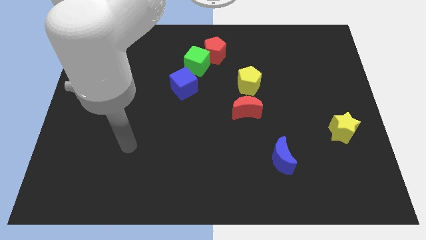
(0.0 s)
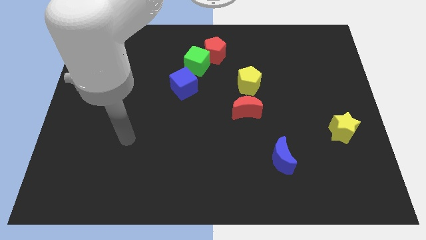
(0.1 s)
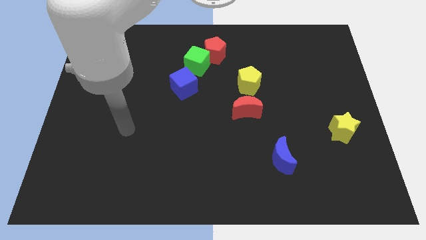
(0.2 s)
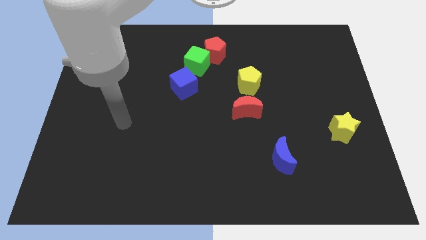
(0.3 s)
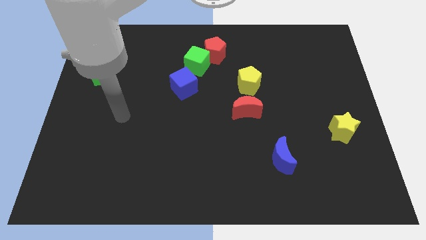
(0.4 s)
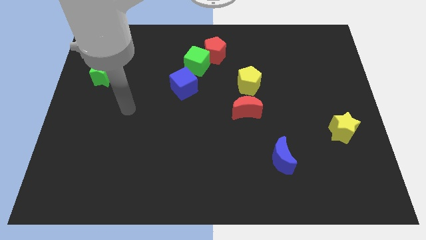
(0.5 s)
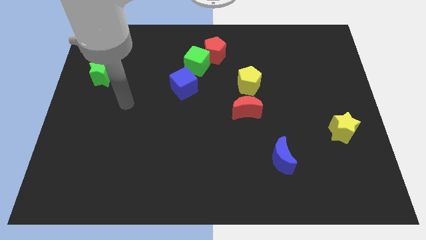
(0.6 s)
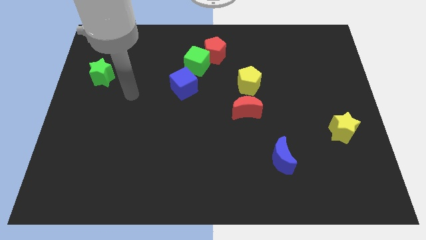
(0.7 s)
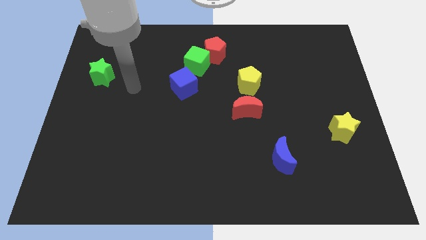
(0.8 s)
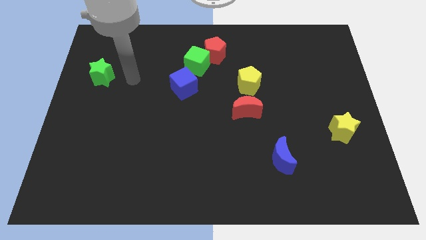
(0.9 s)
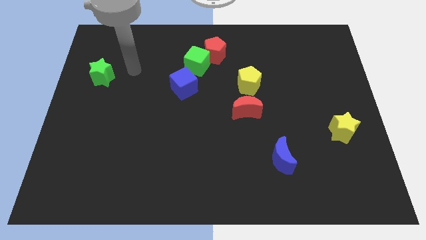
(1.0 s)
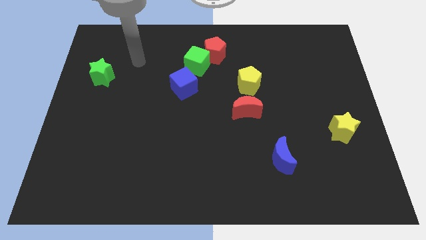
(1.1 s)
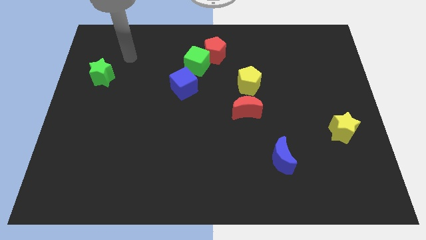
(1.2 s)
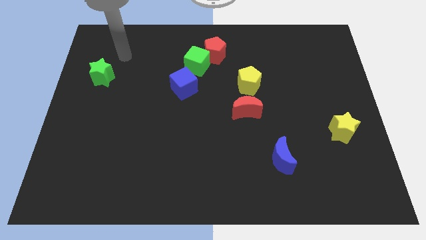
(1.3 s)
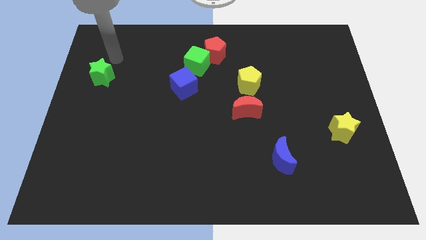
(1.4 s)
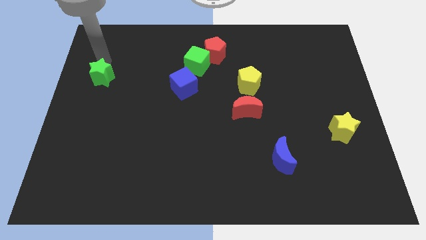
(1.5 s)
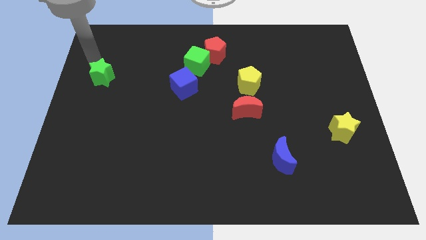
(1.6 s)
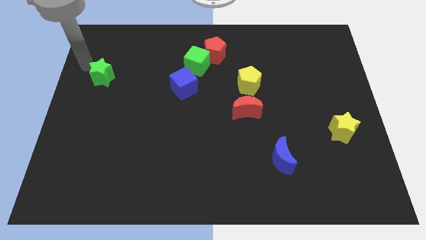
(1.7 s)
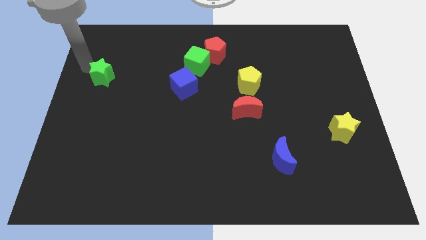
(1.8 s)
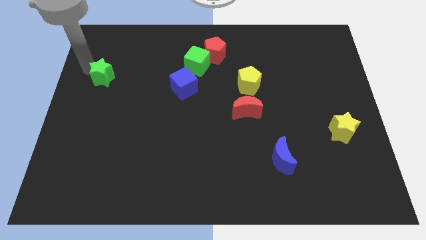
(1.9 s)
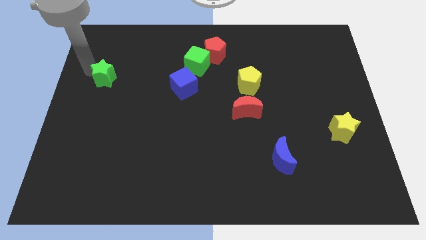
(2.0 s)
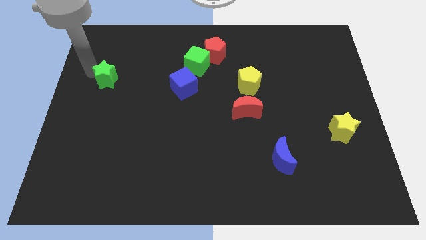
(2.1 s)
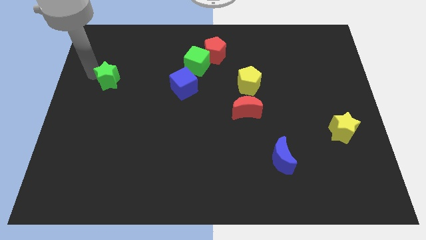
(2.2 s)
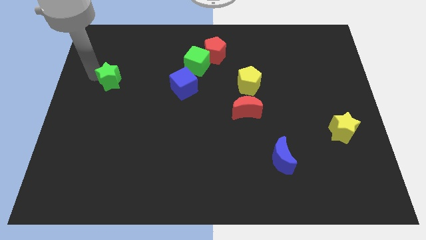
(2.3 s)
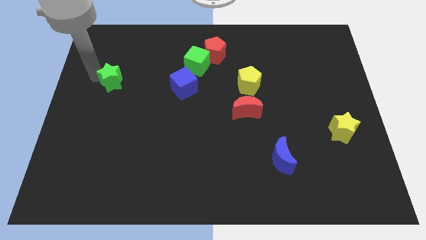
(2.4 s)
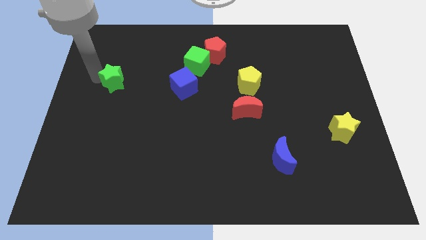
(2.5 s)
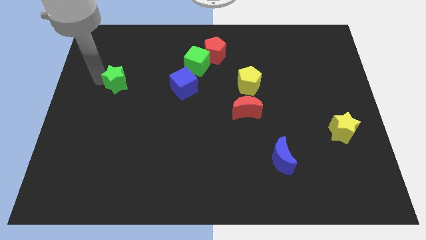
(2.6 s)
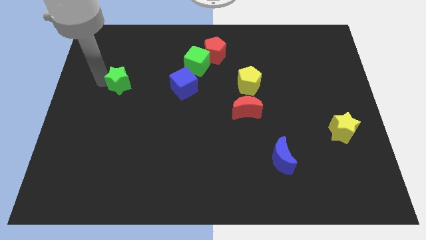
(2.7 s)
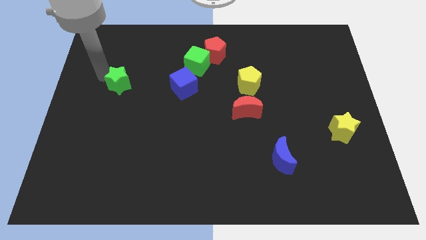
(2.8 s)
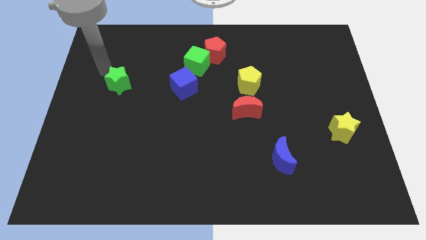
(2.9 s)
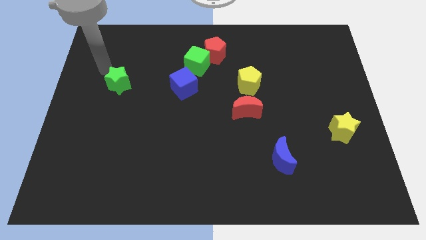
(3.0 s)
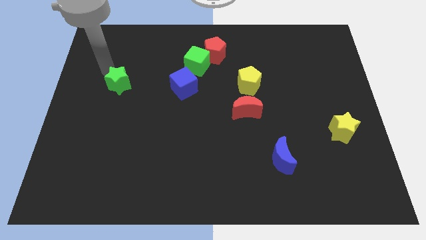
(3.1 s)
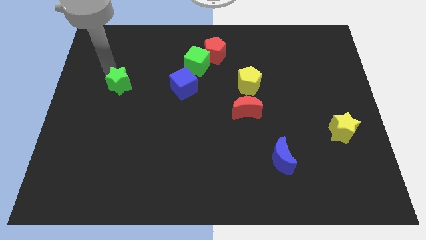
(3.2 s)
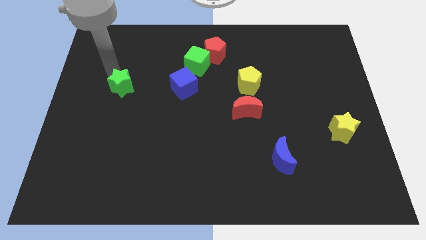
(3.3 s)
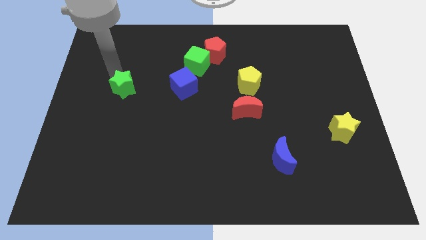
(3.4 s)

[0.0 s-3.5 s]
slightly push the green star downwards and right

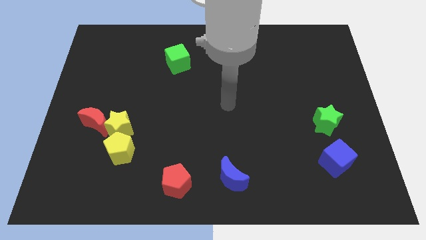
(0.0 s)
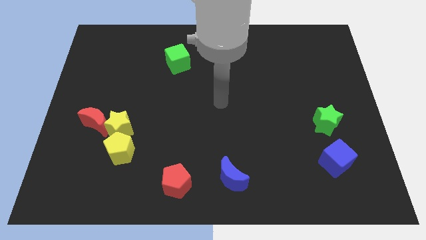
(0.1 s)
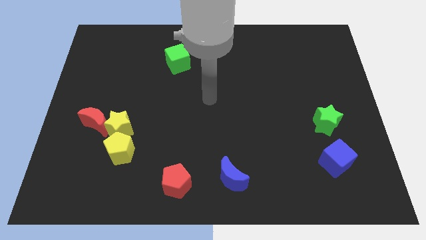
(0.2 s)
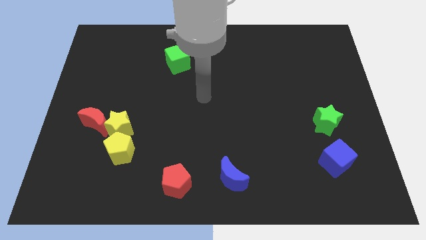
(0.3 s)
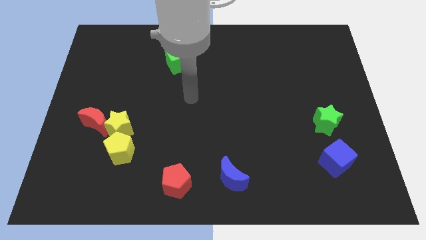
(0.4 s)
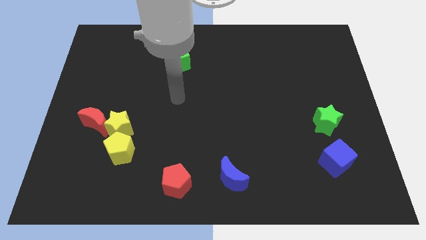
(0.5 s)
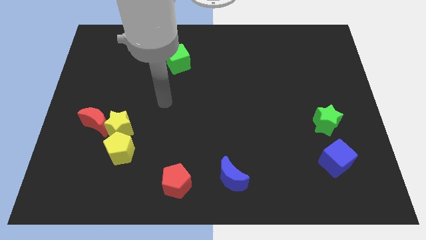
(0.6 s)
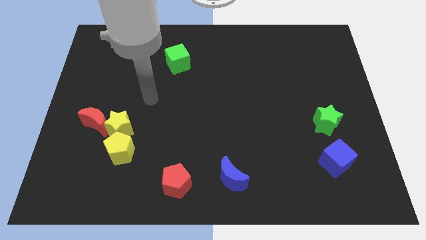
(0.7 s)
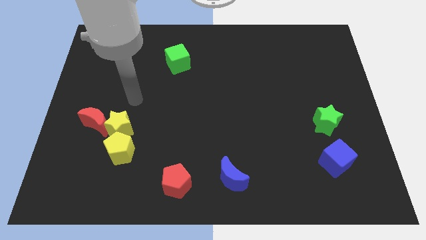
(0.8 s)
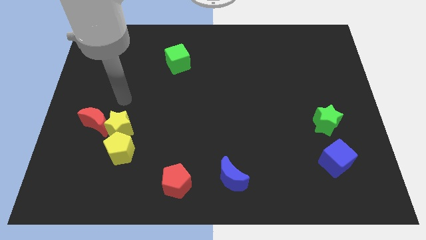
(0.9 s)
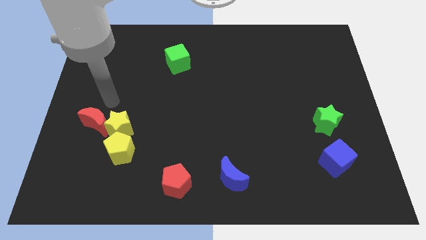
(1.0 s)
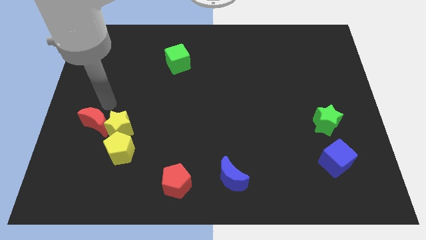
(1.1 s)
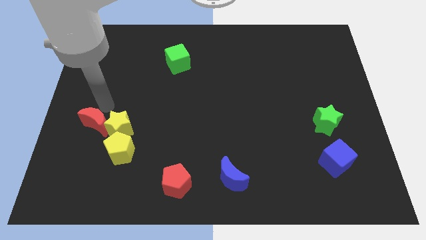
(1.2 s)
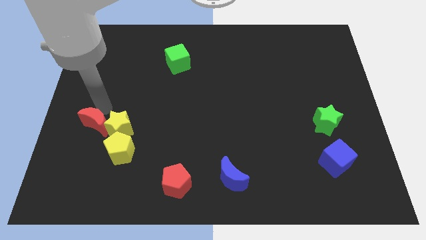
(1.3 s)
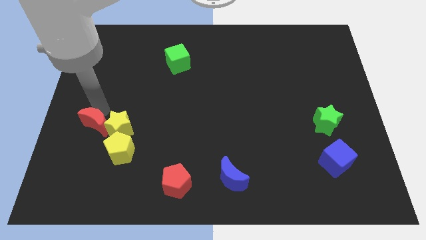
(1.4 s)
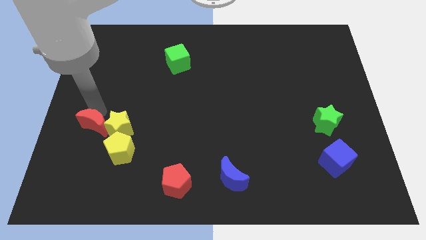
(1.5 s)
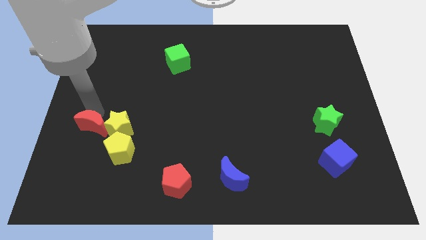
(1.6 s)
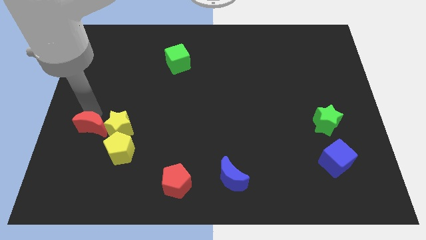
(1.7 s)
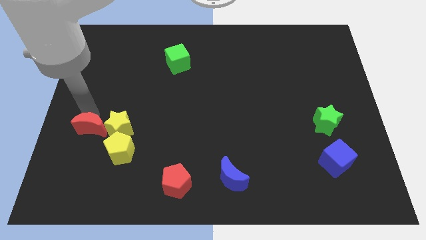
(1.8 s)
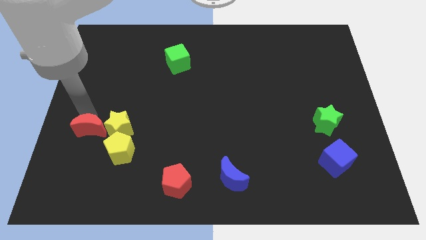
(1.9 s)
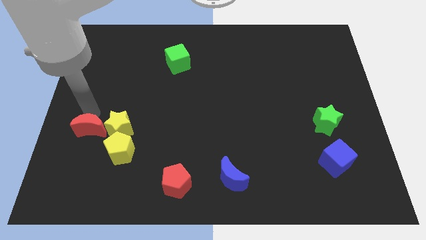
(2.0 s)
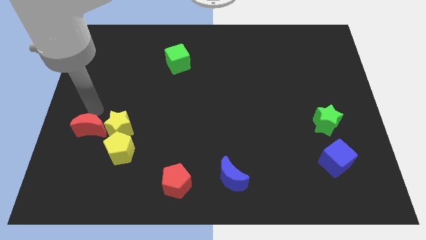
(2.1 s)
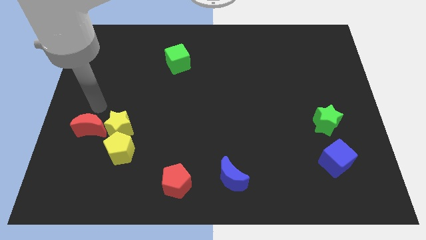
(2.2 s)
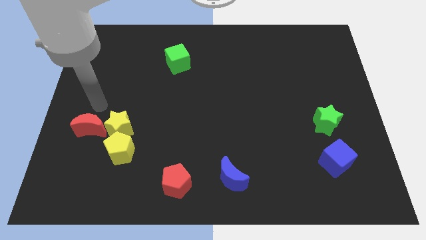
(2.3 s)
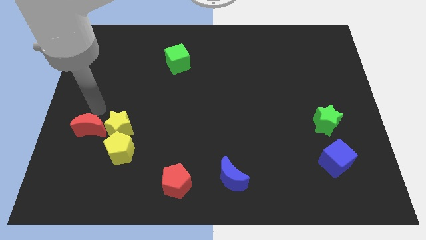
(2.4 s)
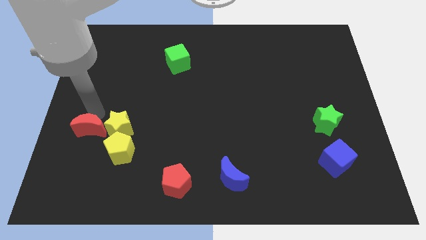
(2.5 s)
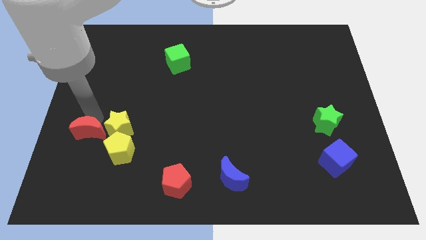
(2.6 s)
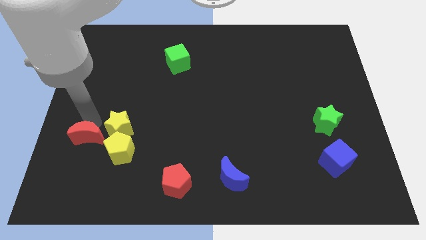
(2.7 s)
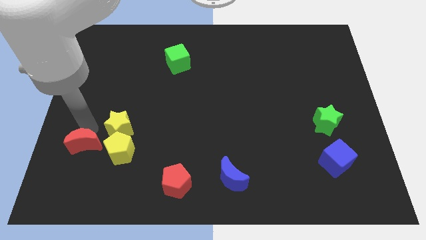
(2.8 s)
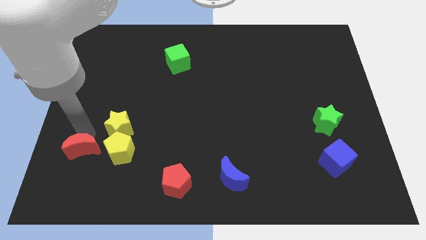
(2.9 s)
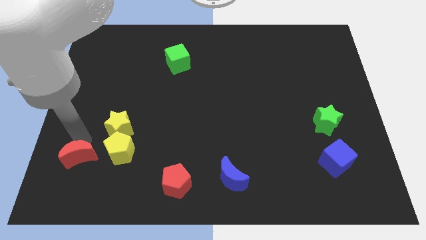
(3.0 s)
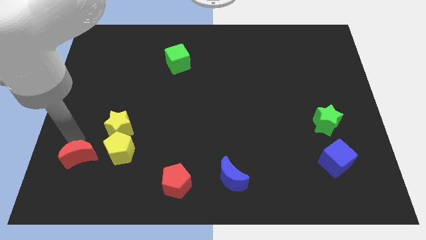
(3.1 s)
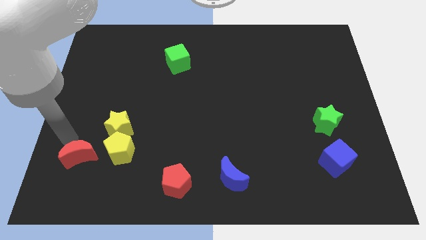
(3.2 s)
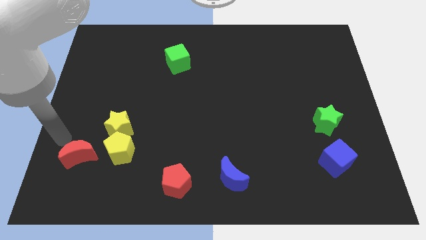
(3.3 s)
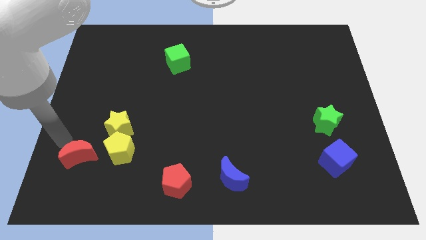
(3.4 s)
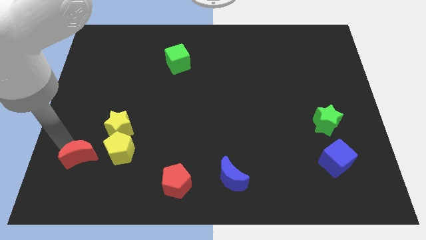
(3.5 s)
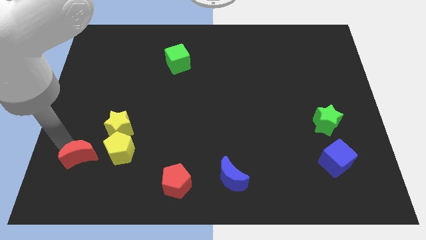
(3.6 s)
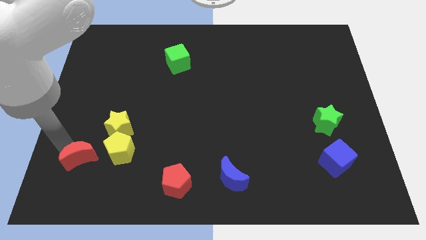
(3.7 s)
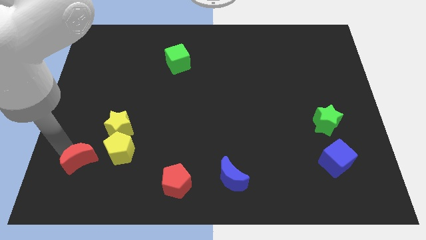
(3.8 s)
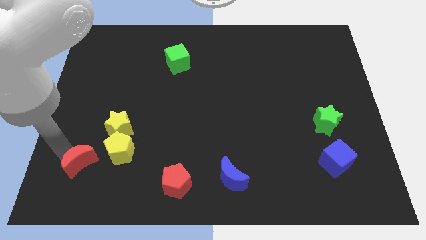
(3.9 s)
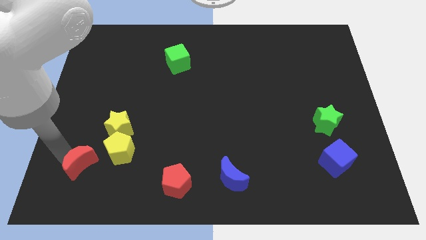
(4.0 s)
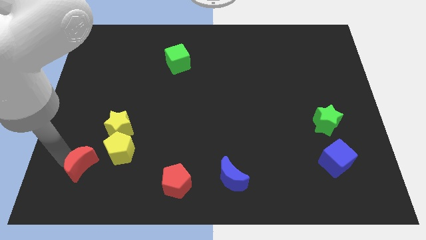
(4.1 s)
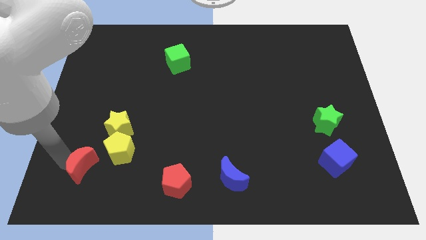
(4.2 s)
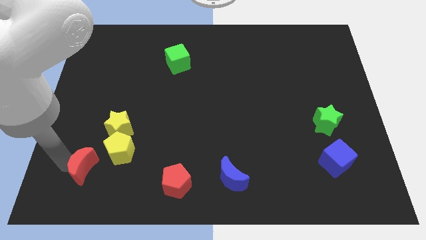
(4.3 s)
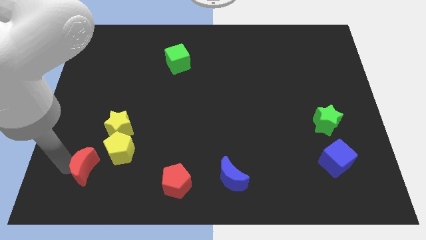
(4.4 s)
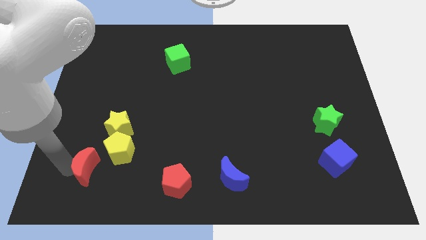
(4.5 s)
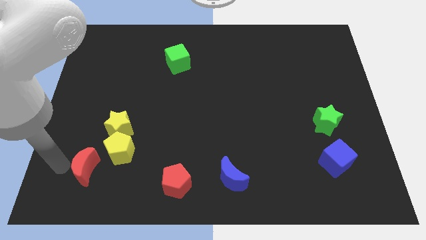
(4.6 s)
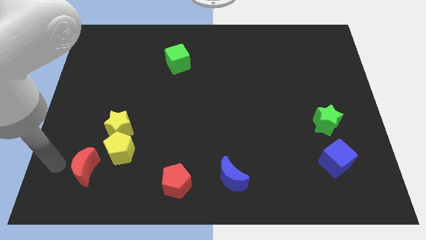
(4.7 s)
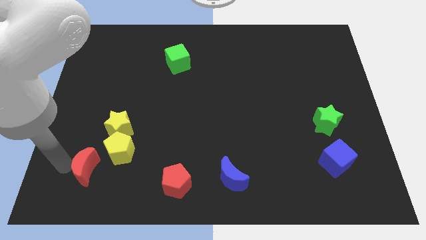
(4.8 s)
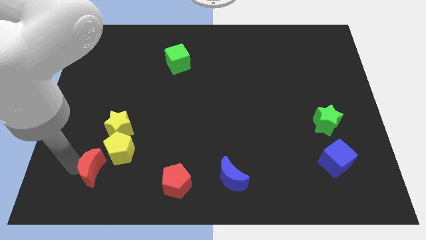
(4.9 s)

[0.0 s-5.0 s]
move the red moon down and right a little bit
